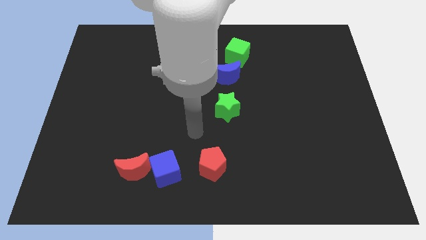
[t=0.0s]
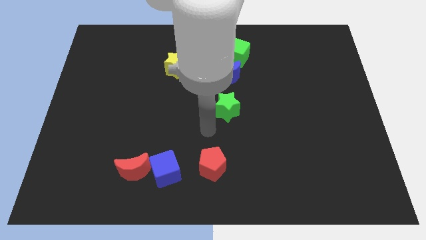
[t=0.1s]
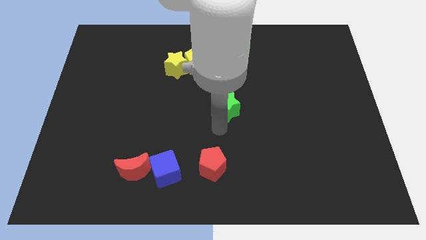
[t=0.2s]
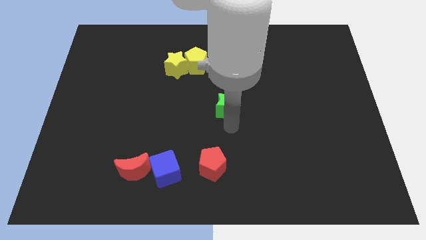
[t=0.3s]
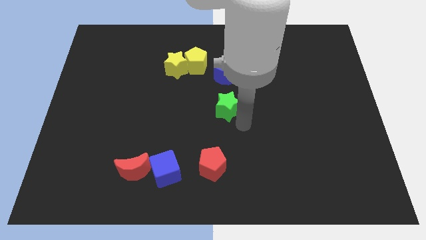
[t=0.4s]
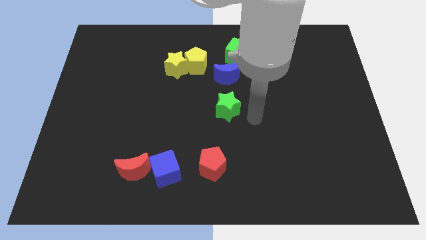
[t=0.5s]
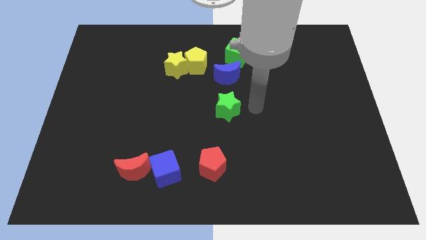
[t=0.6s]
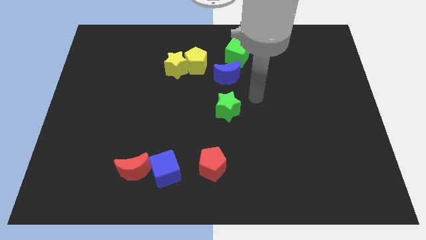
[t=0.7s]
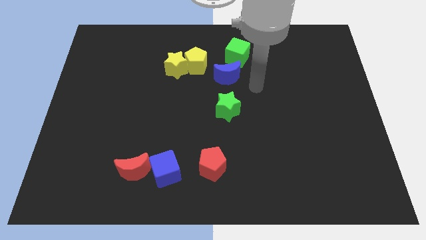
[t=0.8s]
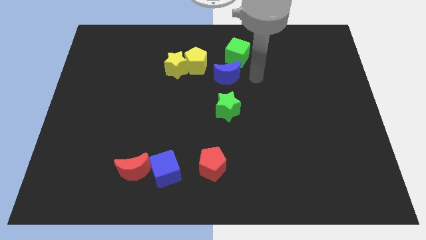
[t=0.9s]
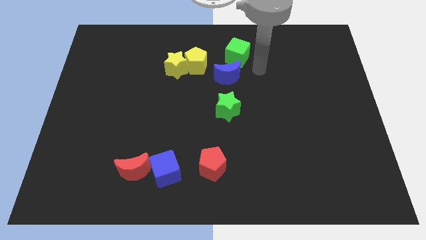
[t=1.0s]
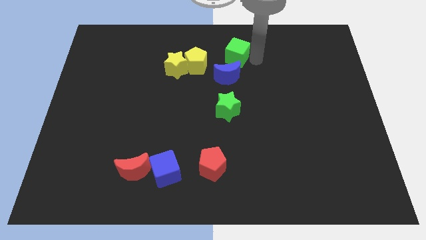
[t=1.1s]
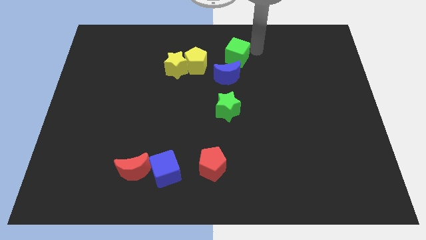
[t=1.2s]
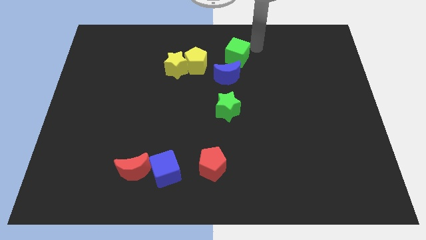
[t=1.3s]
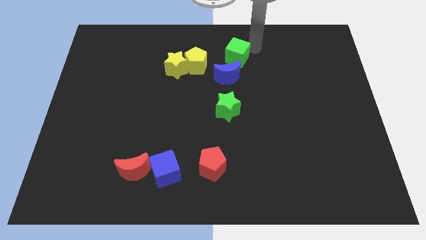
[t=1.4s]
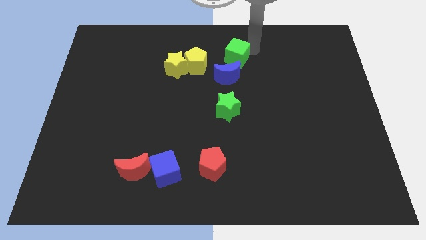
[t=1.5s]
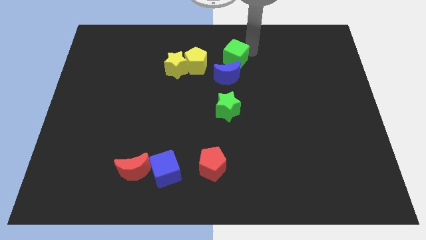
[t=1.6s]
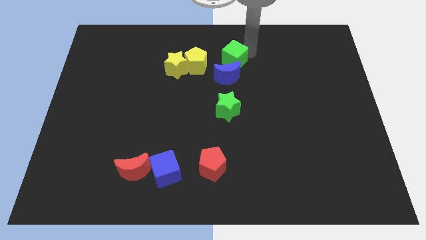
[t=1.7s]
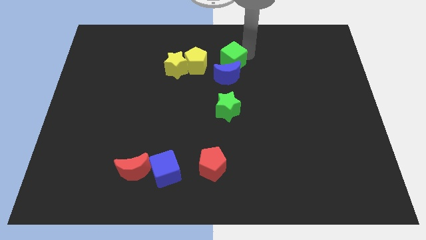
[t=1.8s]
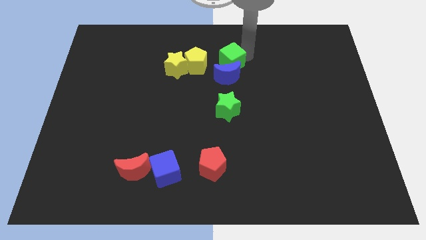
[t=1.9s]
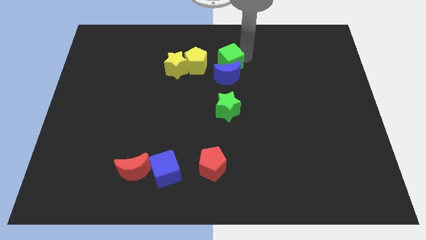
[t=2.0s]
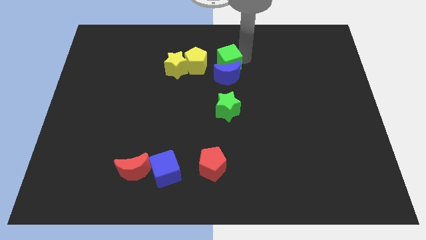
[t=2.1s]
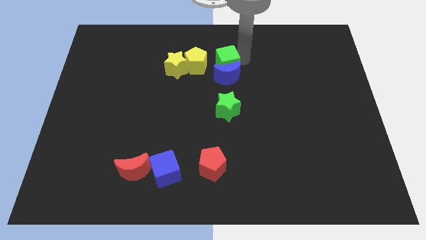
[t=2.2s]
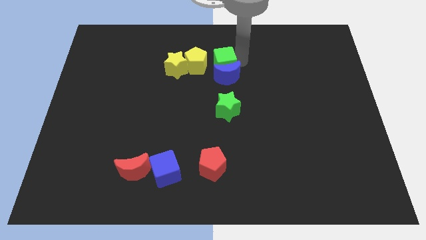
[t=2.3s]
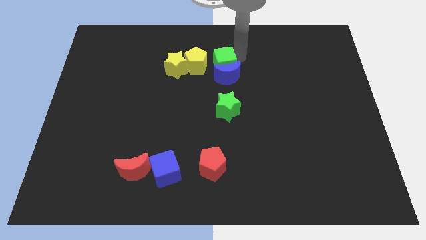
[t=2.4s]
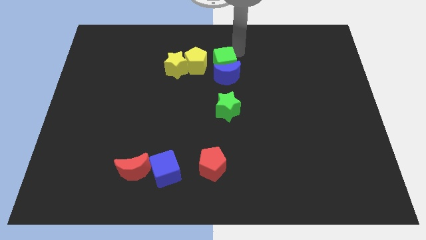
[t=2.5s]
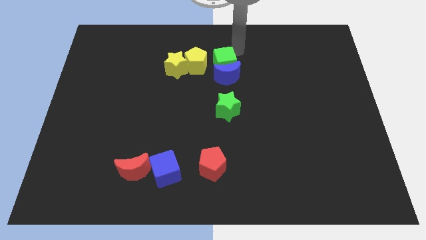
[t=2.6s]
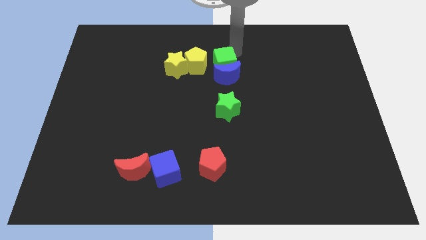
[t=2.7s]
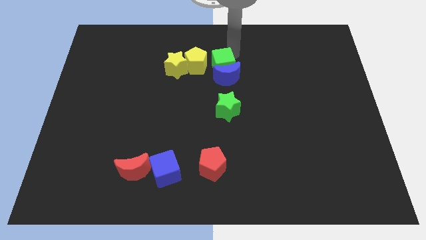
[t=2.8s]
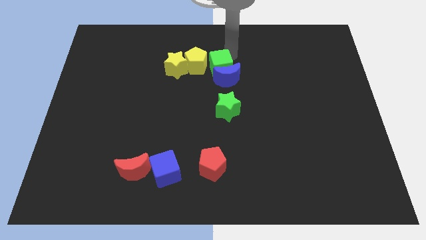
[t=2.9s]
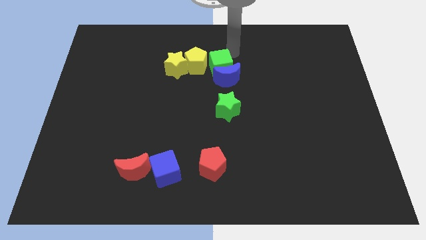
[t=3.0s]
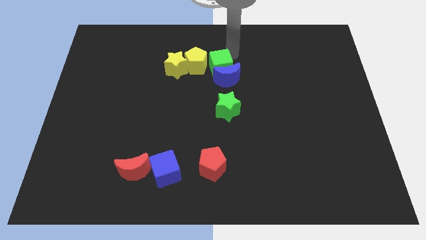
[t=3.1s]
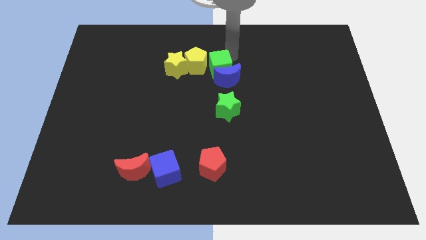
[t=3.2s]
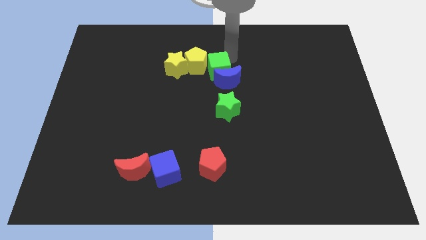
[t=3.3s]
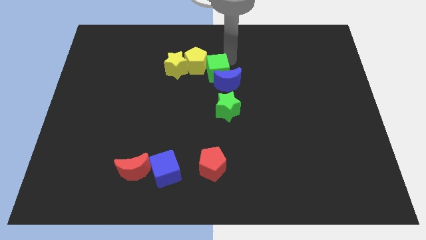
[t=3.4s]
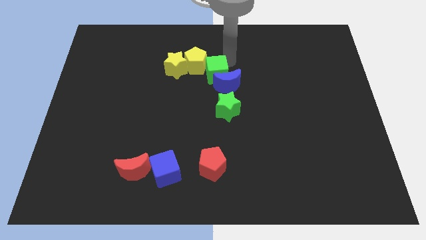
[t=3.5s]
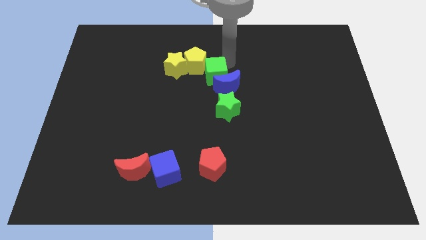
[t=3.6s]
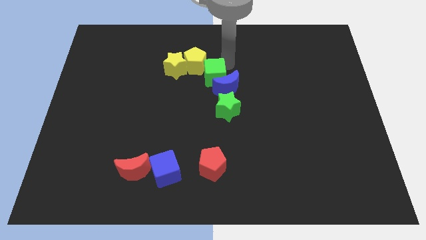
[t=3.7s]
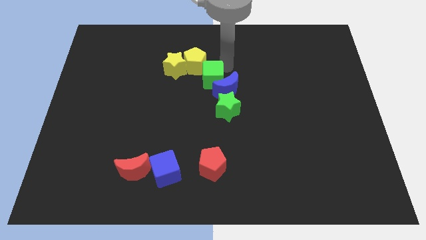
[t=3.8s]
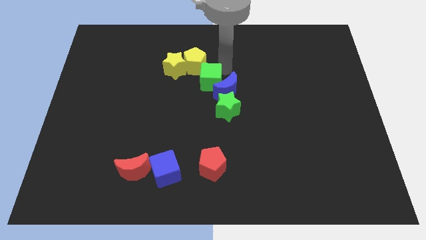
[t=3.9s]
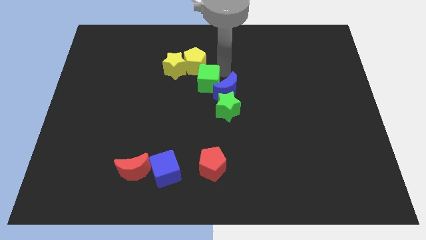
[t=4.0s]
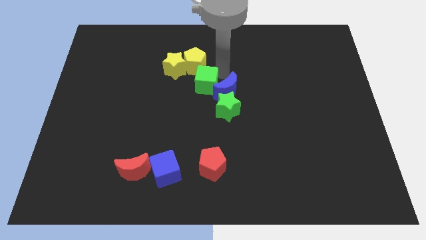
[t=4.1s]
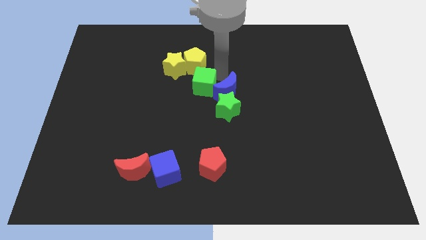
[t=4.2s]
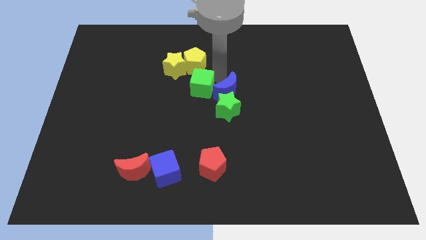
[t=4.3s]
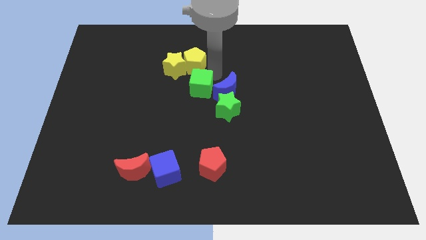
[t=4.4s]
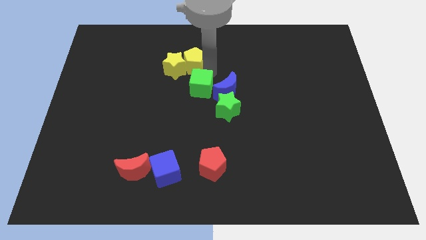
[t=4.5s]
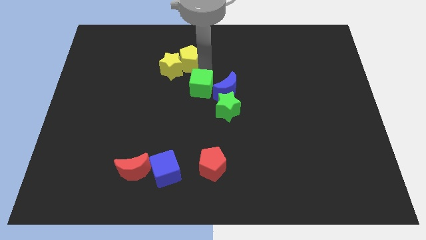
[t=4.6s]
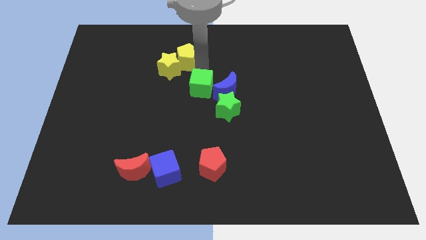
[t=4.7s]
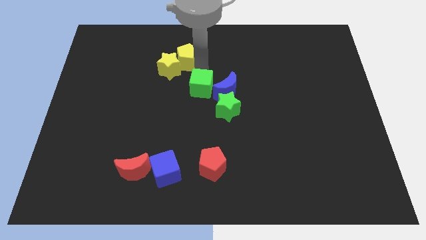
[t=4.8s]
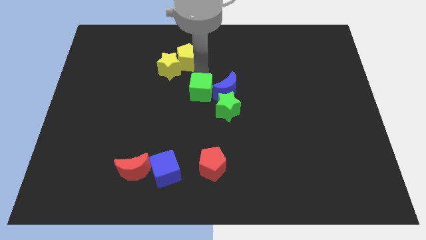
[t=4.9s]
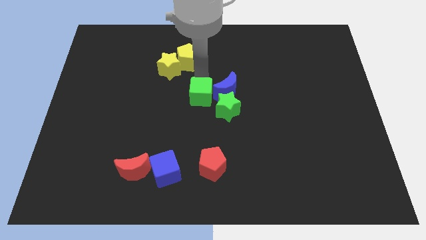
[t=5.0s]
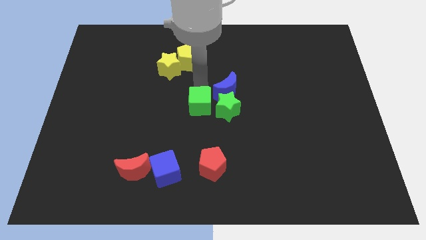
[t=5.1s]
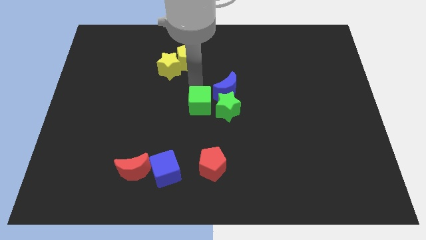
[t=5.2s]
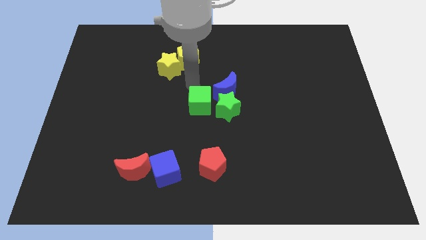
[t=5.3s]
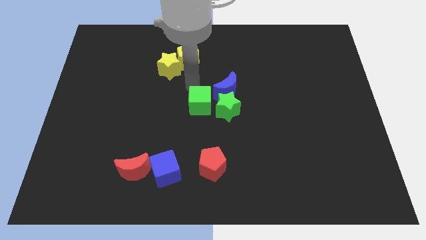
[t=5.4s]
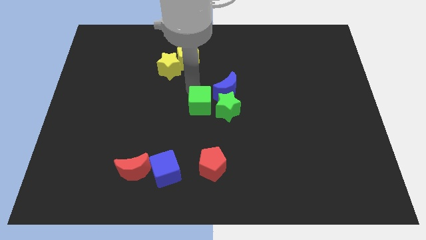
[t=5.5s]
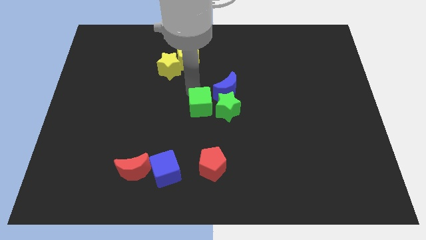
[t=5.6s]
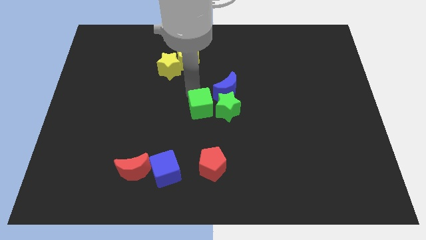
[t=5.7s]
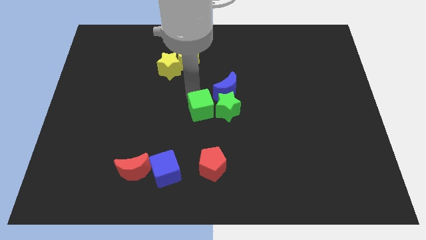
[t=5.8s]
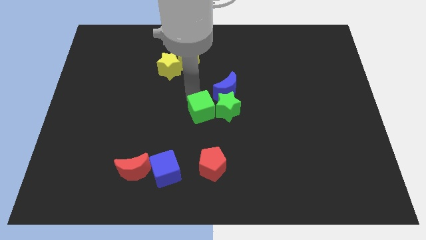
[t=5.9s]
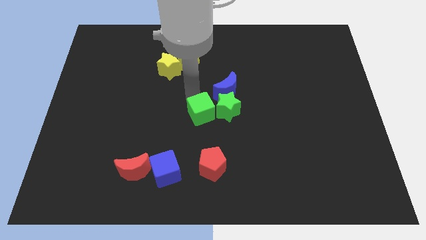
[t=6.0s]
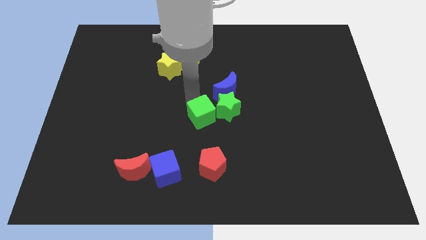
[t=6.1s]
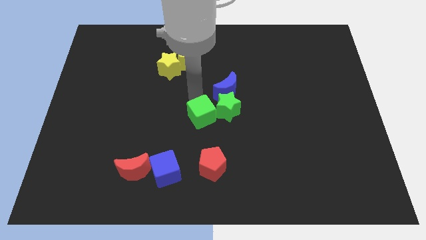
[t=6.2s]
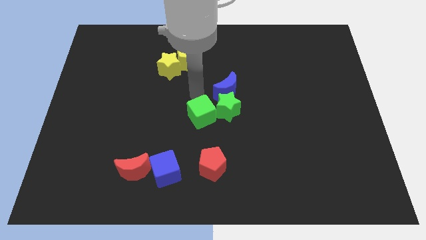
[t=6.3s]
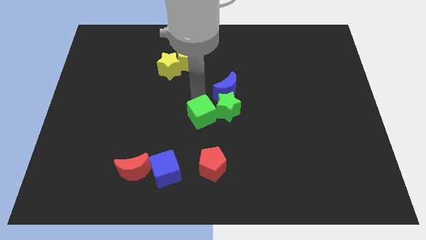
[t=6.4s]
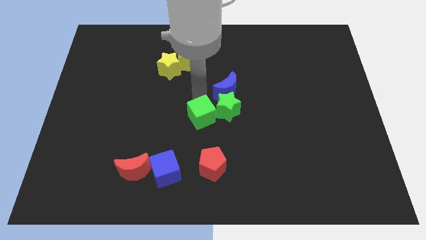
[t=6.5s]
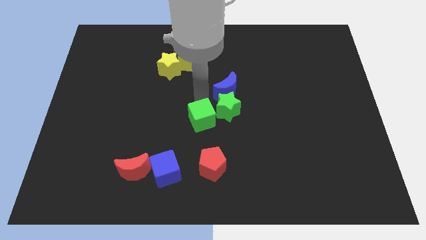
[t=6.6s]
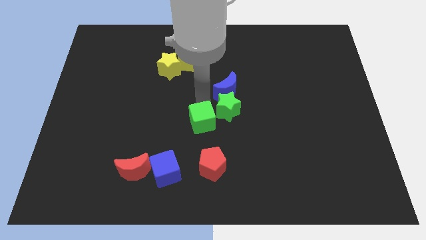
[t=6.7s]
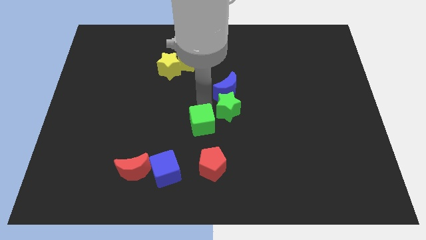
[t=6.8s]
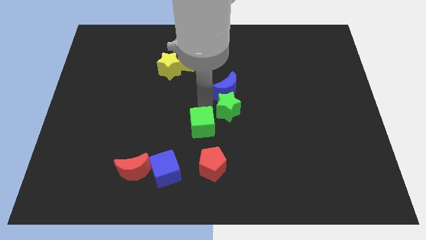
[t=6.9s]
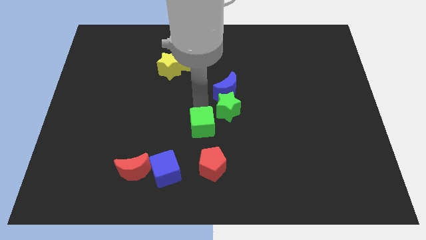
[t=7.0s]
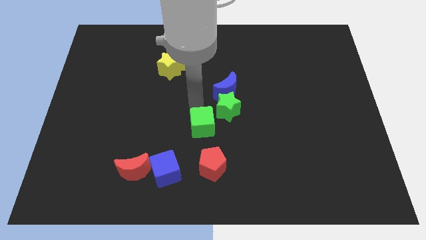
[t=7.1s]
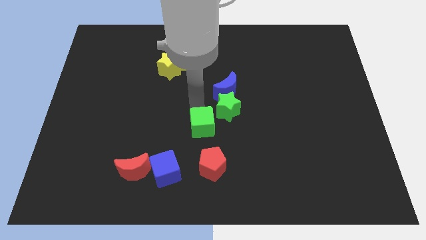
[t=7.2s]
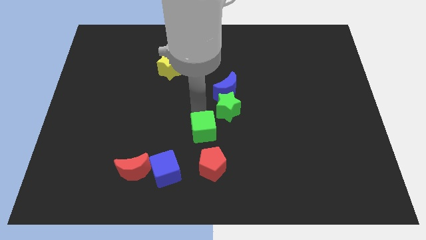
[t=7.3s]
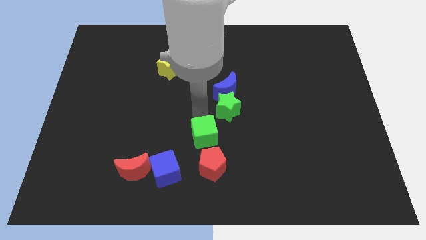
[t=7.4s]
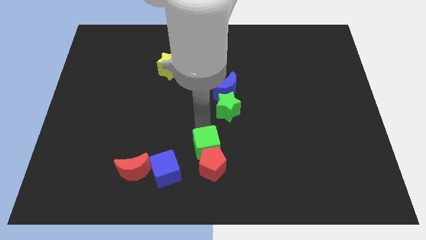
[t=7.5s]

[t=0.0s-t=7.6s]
move the green cube close to the red pentagon
